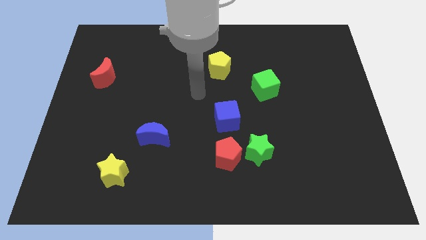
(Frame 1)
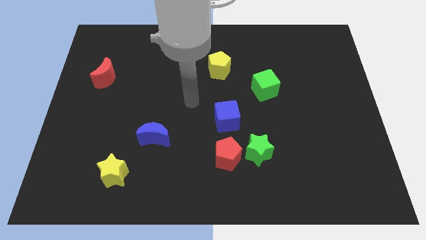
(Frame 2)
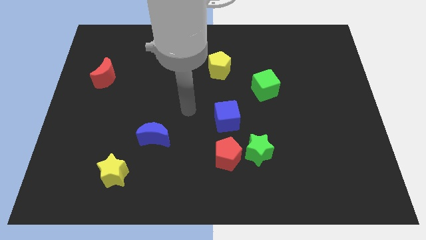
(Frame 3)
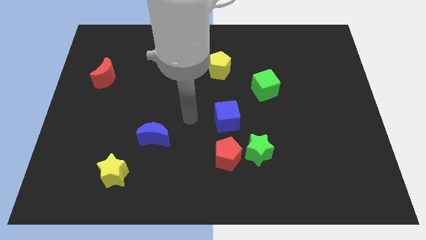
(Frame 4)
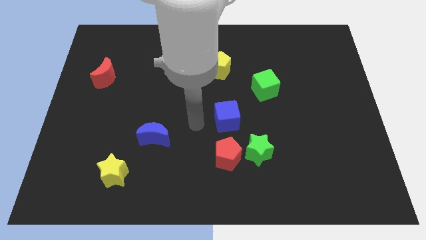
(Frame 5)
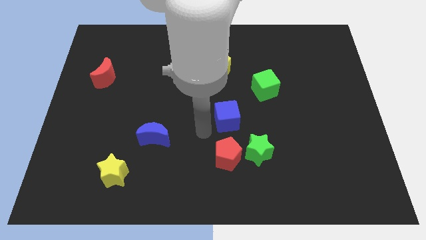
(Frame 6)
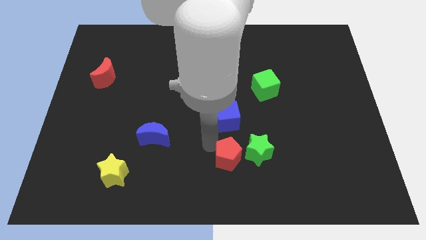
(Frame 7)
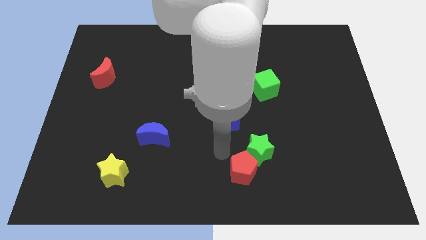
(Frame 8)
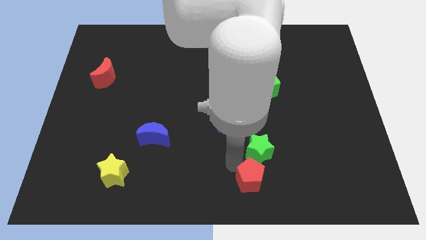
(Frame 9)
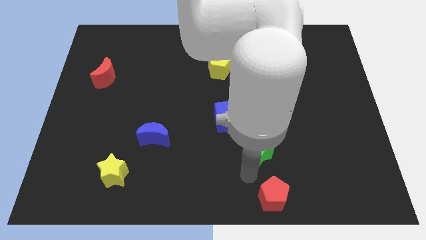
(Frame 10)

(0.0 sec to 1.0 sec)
pull the green star apart from the red pentagon

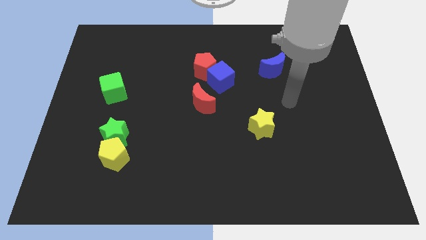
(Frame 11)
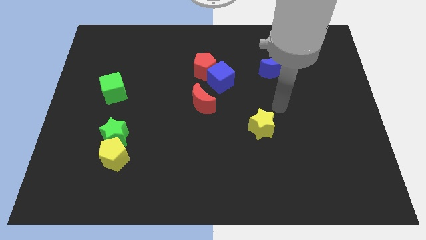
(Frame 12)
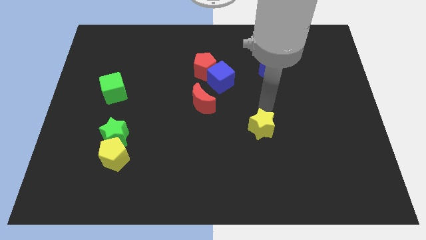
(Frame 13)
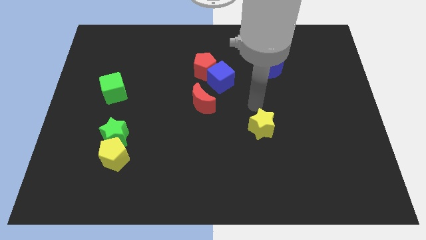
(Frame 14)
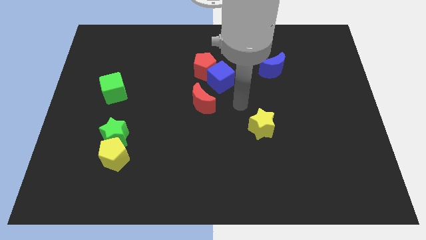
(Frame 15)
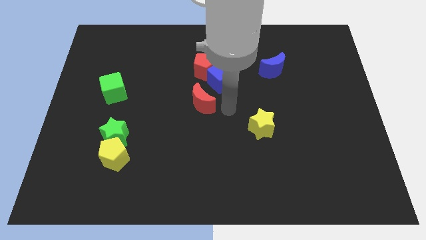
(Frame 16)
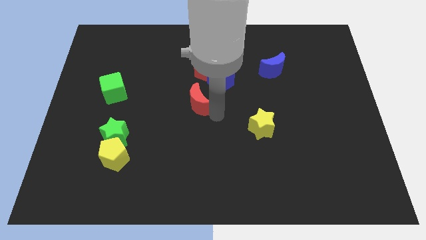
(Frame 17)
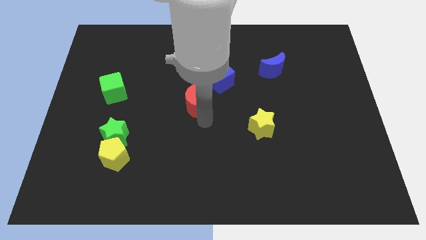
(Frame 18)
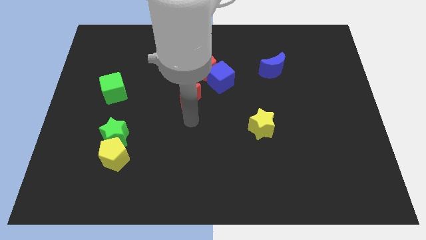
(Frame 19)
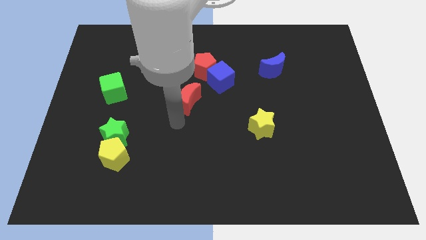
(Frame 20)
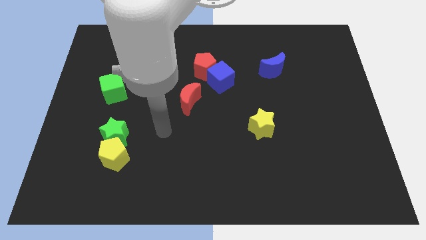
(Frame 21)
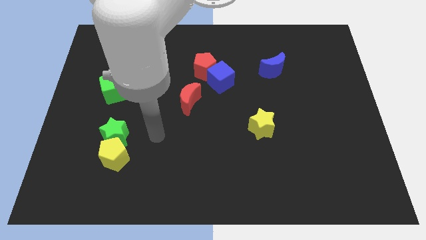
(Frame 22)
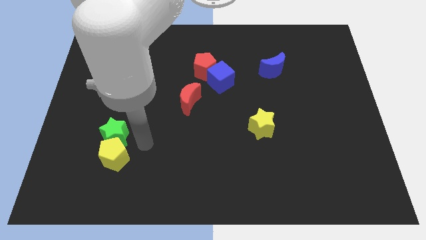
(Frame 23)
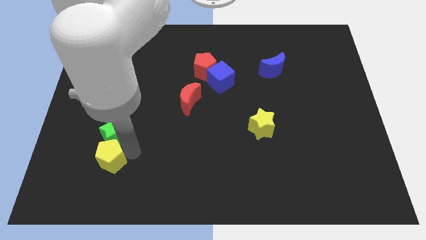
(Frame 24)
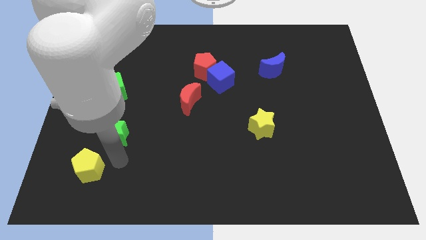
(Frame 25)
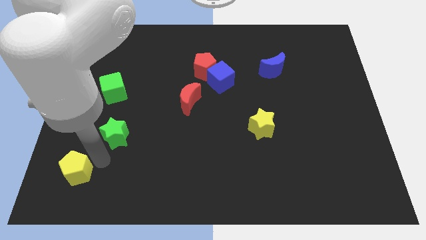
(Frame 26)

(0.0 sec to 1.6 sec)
move the green star away from the yellow pentagon

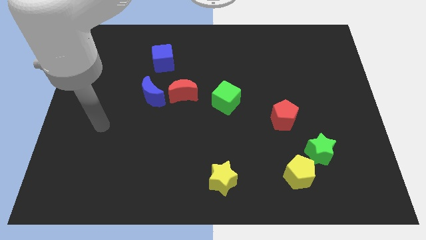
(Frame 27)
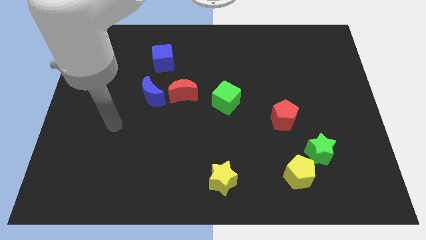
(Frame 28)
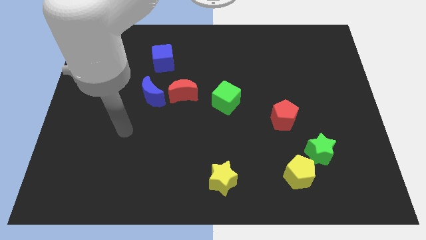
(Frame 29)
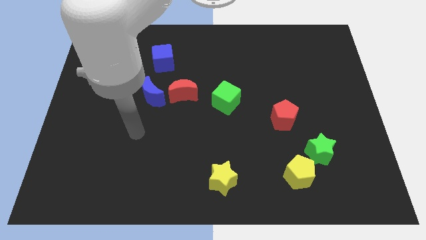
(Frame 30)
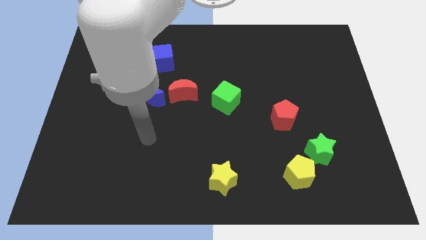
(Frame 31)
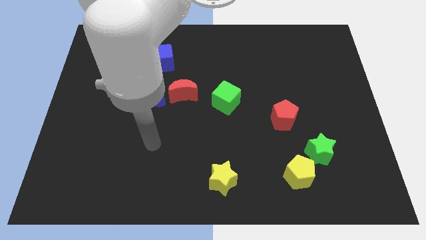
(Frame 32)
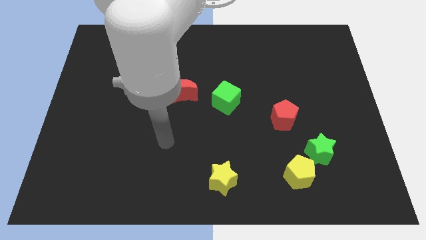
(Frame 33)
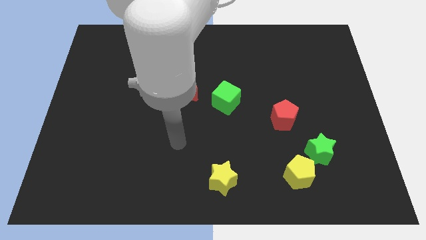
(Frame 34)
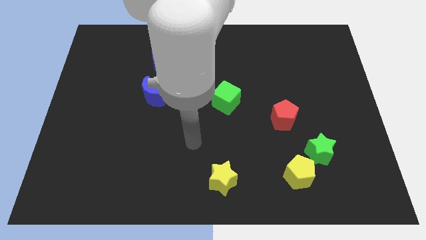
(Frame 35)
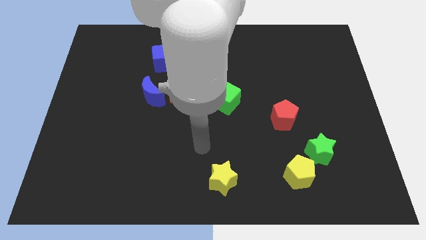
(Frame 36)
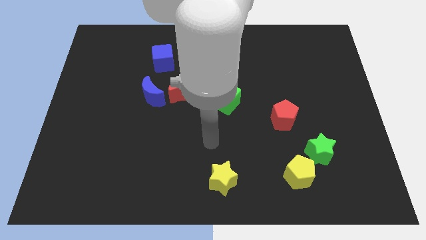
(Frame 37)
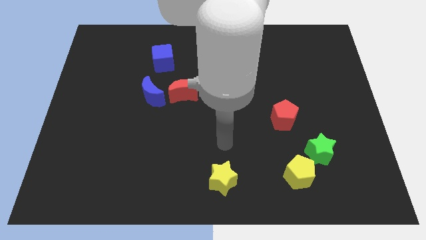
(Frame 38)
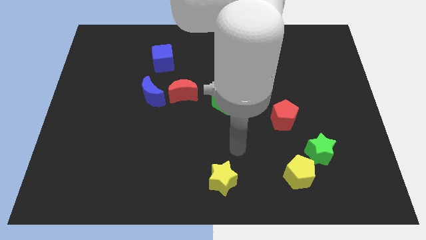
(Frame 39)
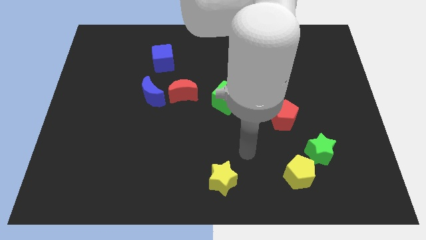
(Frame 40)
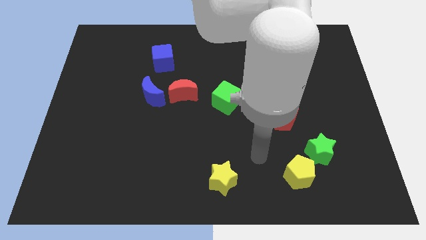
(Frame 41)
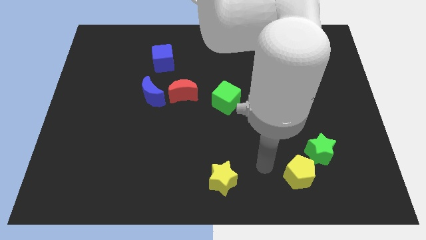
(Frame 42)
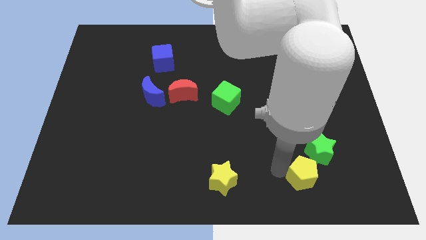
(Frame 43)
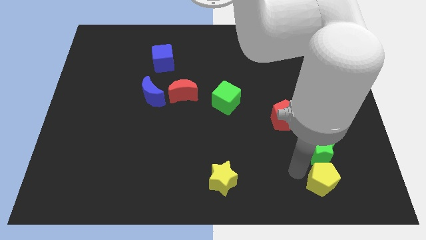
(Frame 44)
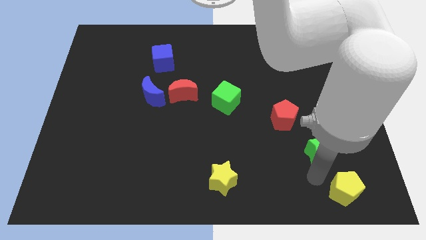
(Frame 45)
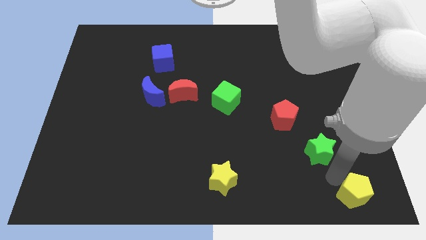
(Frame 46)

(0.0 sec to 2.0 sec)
separate the green star from the yellow pentagon

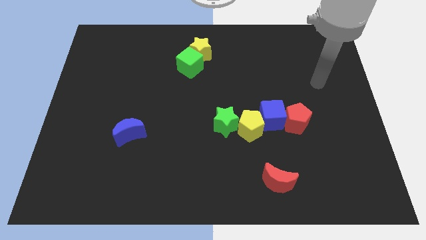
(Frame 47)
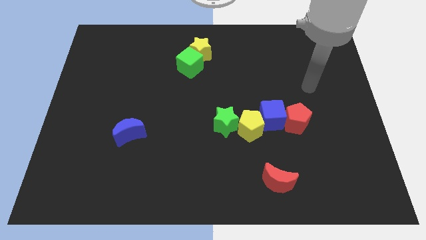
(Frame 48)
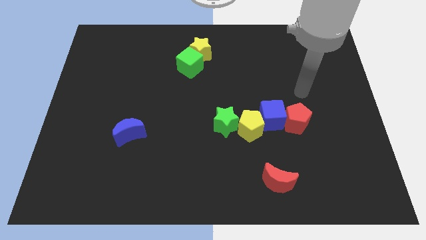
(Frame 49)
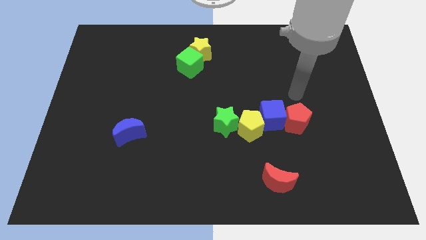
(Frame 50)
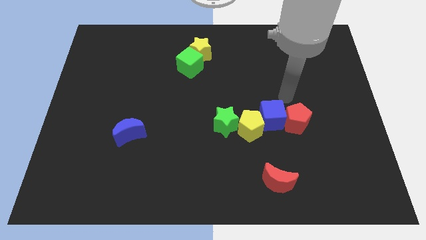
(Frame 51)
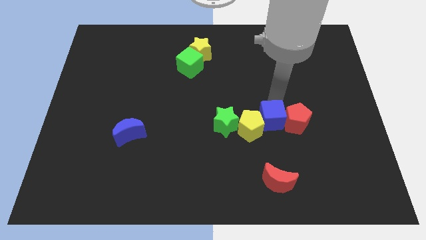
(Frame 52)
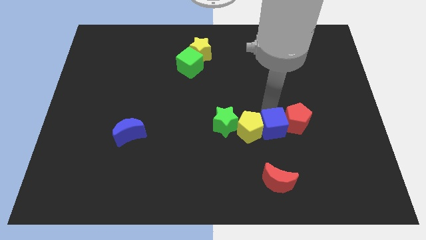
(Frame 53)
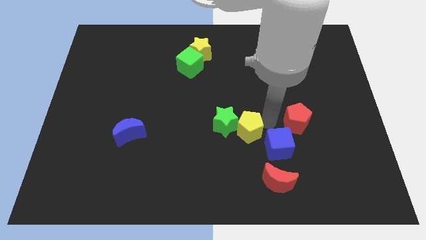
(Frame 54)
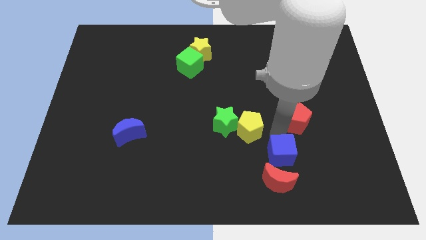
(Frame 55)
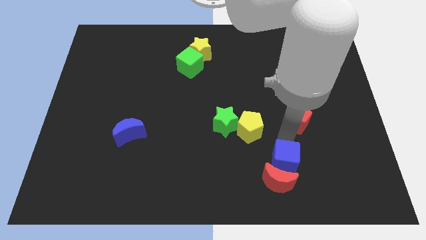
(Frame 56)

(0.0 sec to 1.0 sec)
separate the red pentagon from the blue cube

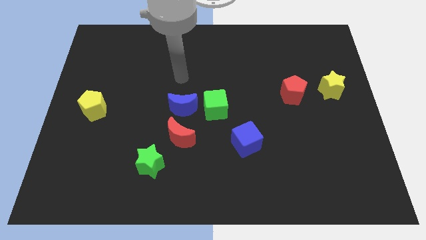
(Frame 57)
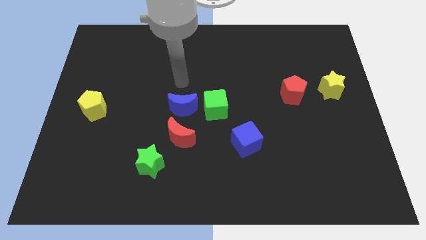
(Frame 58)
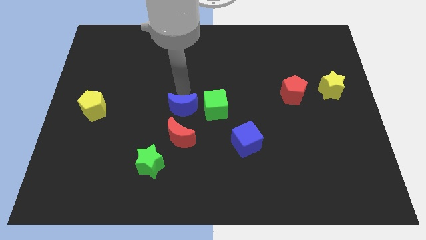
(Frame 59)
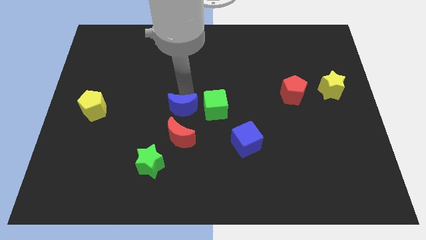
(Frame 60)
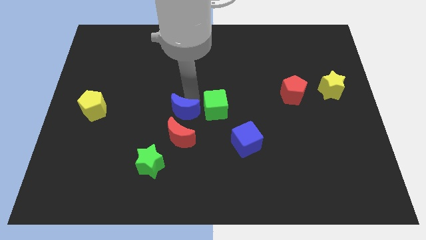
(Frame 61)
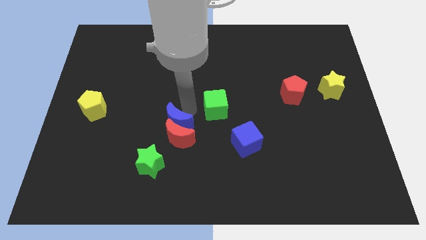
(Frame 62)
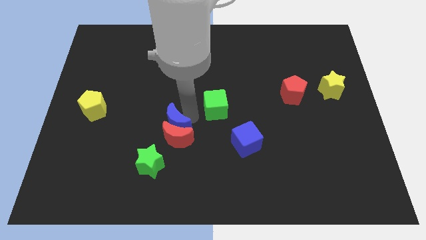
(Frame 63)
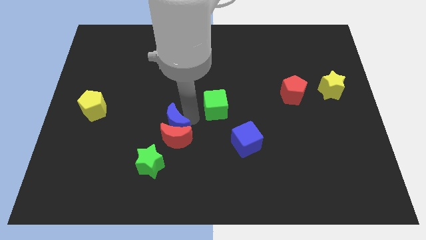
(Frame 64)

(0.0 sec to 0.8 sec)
move the green cube away from the blue moon

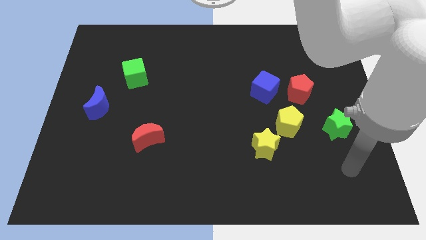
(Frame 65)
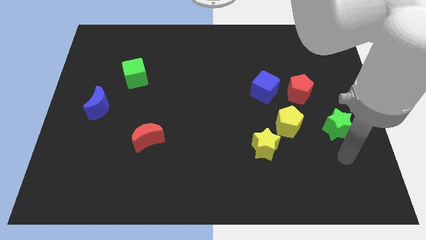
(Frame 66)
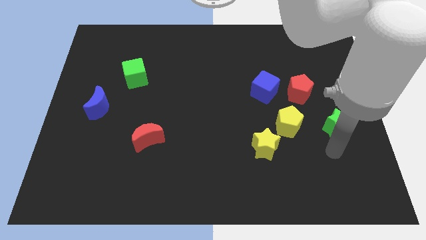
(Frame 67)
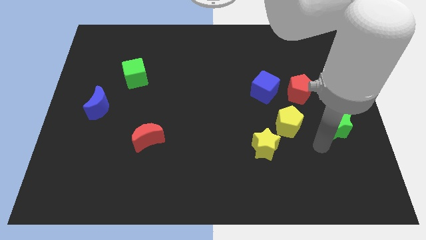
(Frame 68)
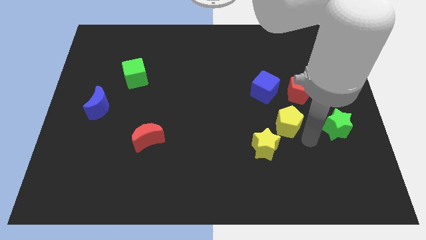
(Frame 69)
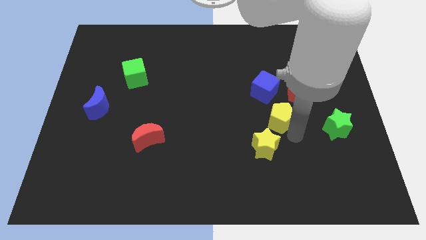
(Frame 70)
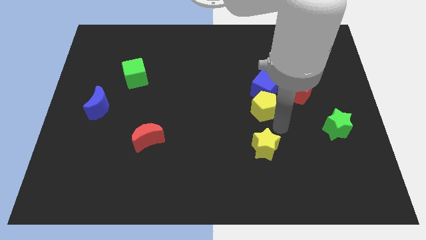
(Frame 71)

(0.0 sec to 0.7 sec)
separate the yellow star from the yellow pentagon

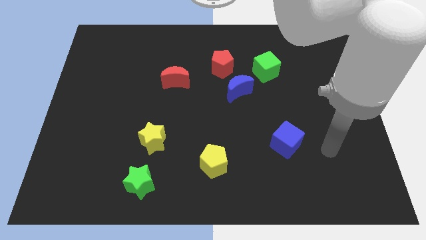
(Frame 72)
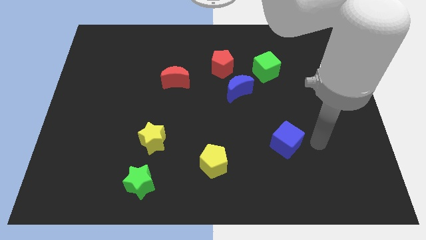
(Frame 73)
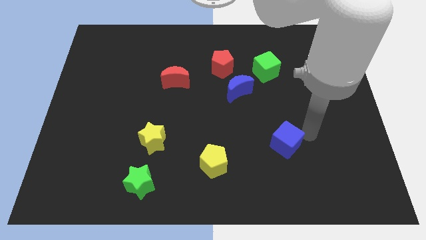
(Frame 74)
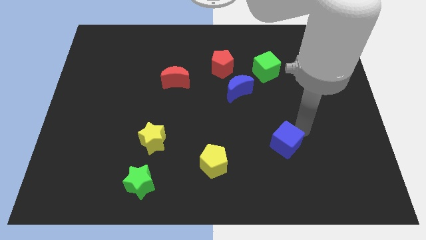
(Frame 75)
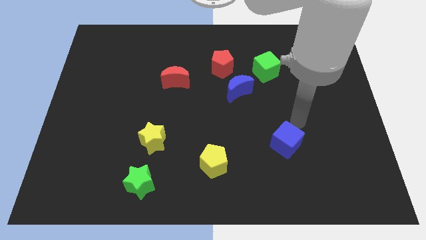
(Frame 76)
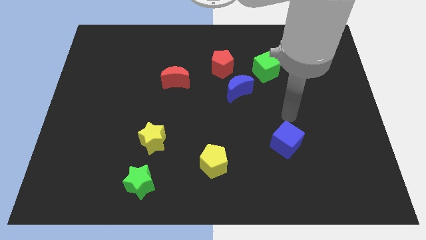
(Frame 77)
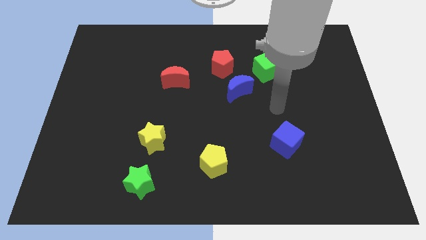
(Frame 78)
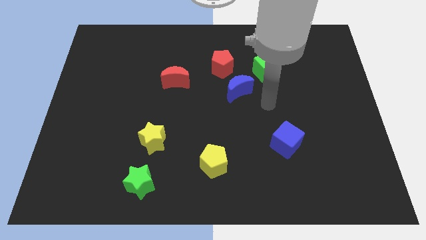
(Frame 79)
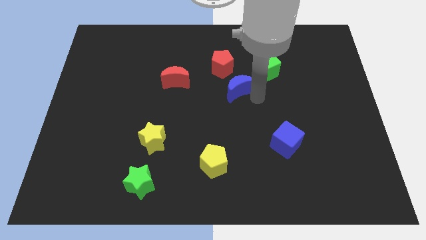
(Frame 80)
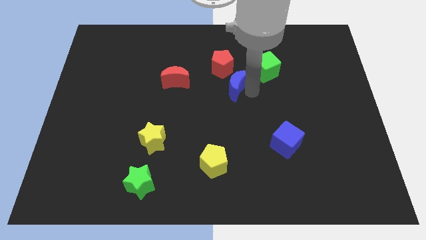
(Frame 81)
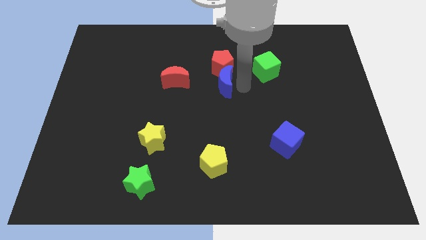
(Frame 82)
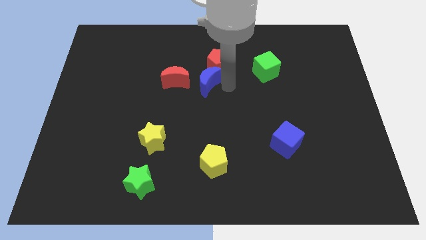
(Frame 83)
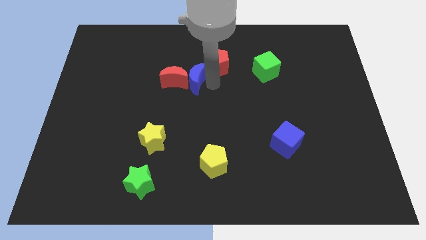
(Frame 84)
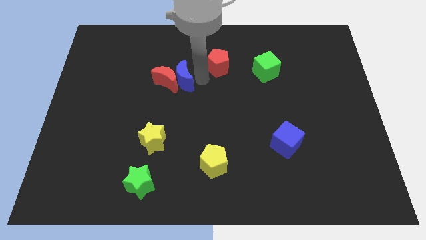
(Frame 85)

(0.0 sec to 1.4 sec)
pull the red pentagon apart from the blue moon

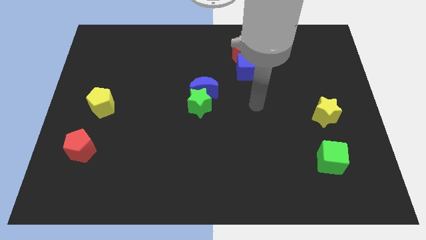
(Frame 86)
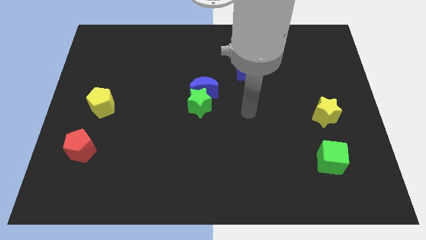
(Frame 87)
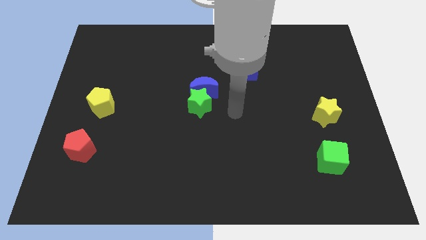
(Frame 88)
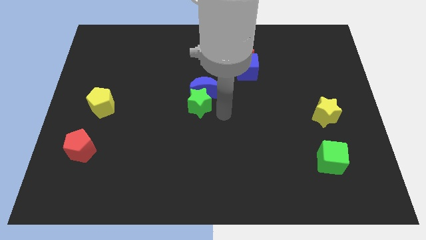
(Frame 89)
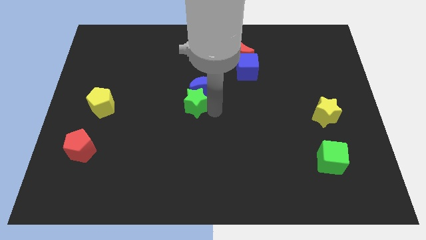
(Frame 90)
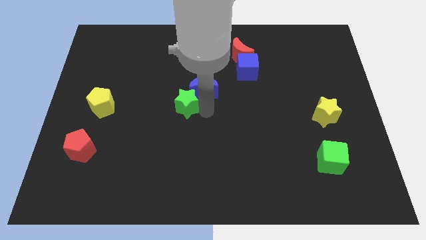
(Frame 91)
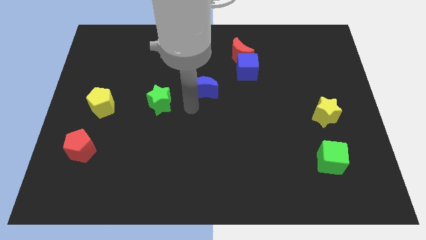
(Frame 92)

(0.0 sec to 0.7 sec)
separate the blue moon from the green star
